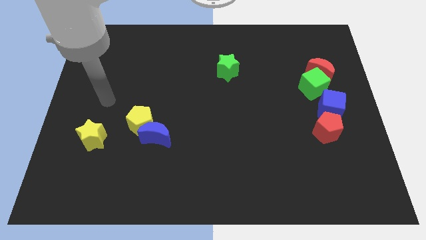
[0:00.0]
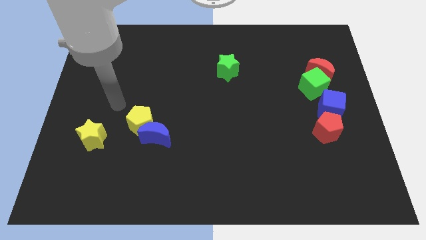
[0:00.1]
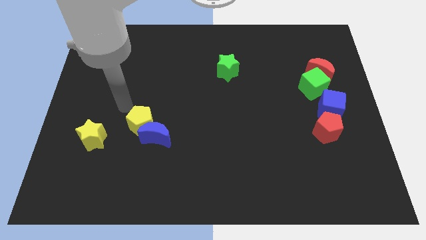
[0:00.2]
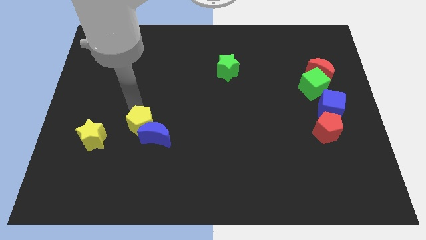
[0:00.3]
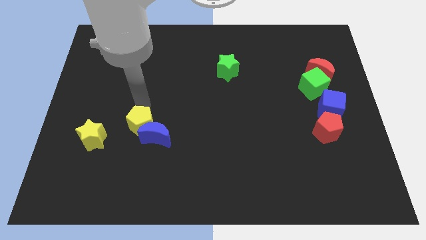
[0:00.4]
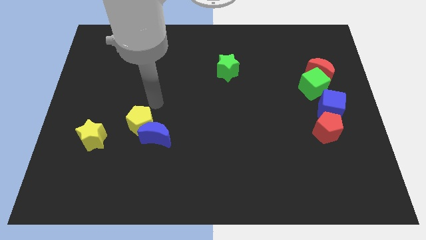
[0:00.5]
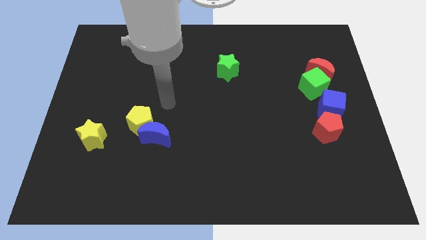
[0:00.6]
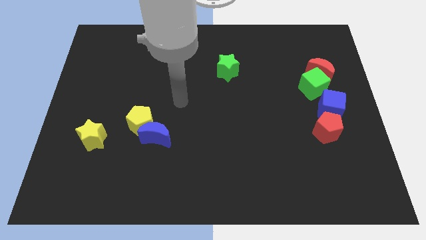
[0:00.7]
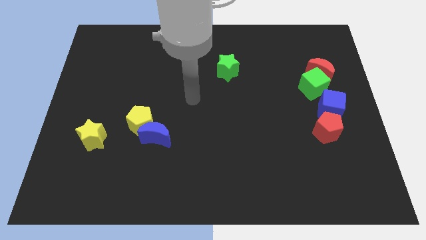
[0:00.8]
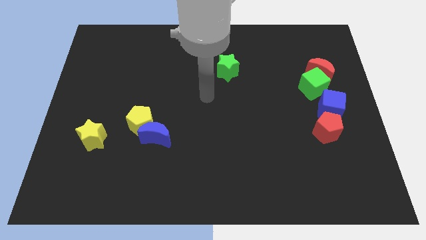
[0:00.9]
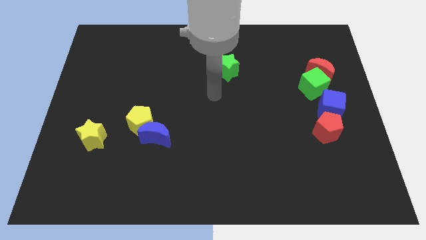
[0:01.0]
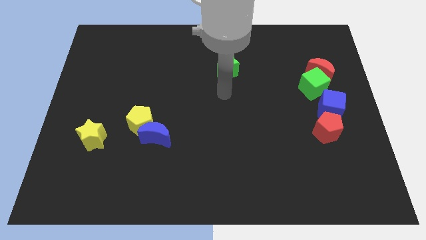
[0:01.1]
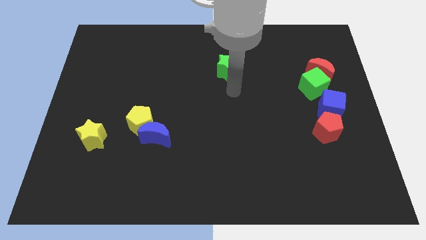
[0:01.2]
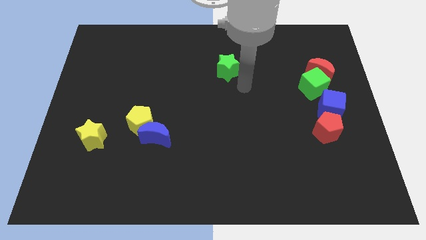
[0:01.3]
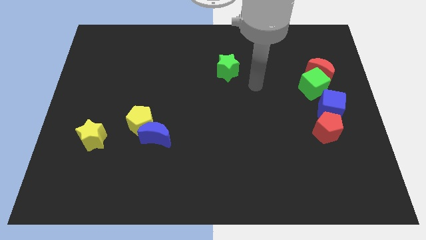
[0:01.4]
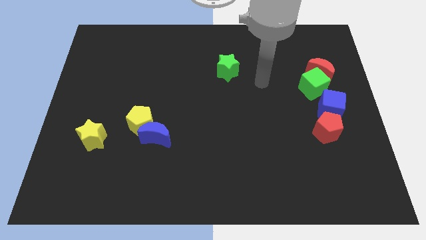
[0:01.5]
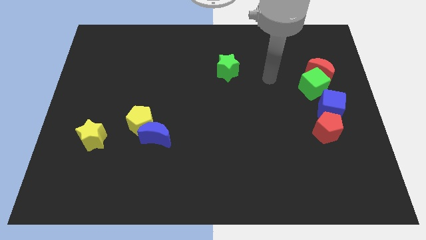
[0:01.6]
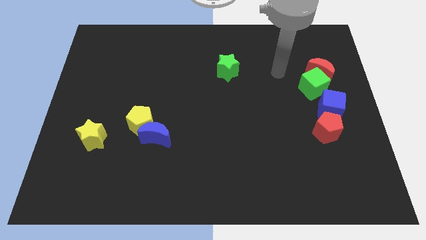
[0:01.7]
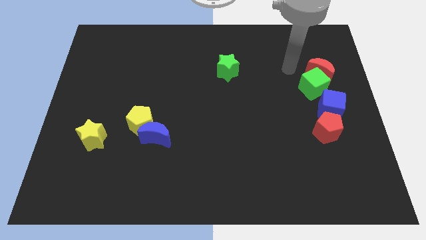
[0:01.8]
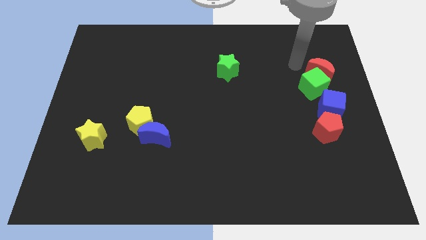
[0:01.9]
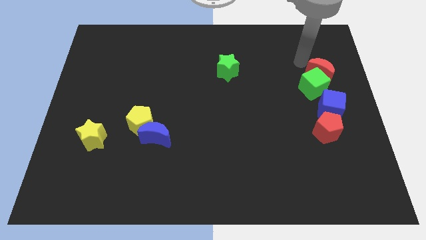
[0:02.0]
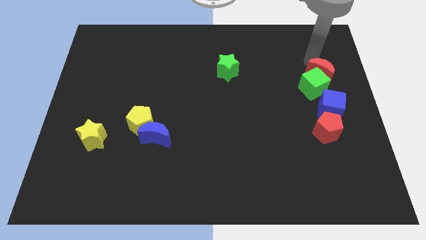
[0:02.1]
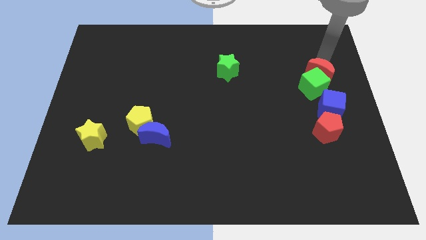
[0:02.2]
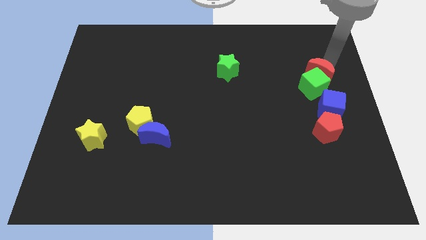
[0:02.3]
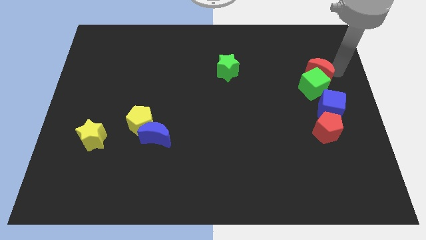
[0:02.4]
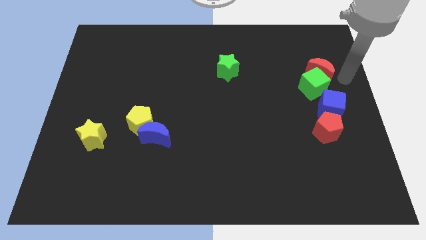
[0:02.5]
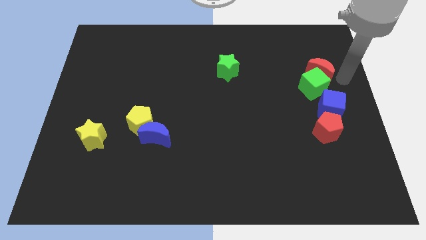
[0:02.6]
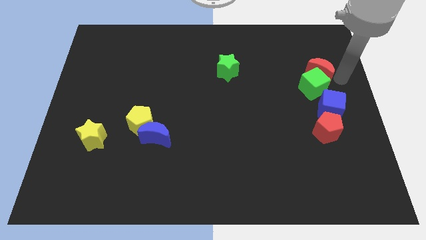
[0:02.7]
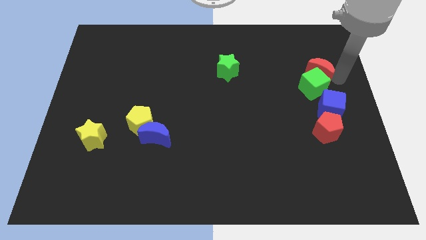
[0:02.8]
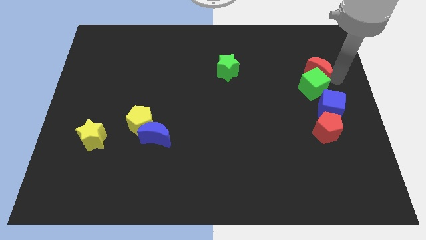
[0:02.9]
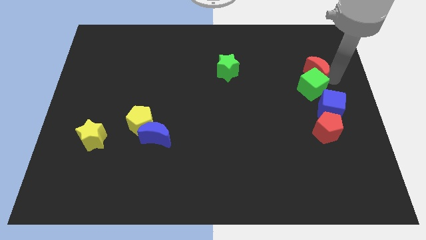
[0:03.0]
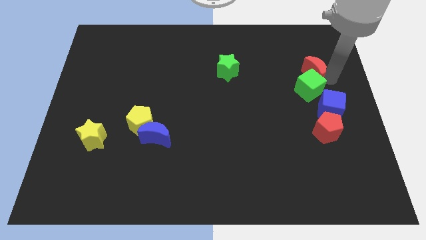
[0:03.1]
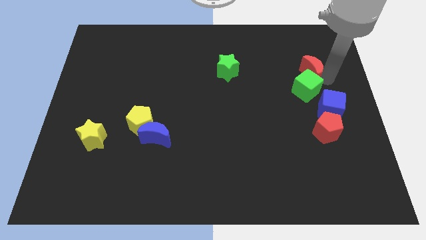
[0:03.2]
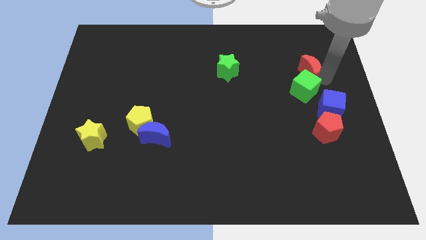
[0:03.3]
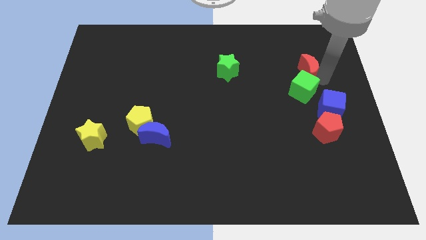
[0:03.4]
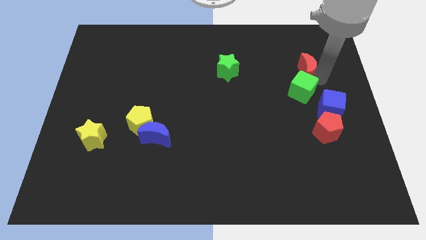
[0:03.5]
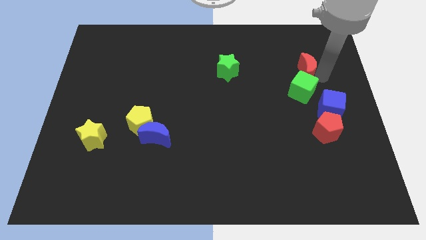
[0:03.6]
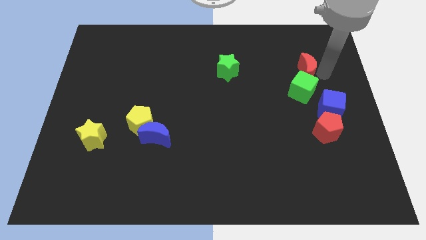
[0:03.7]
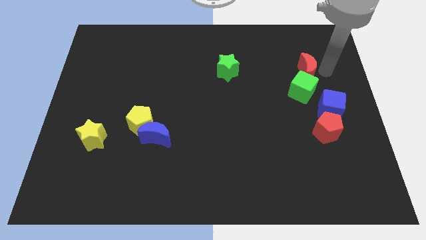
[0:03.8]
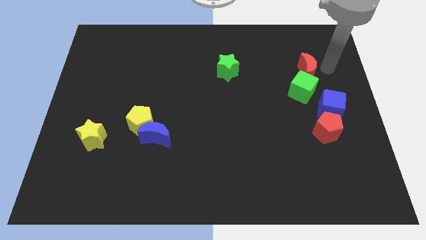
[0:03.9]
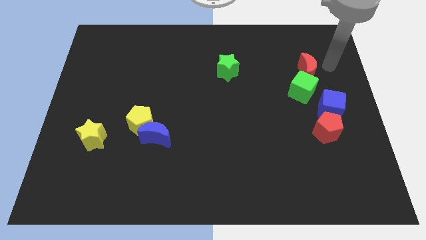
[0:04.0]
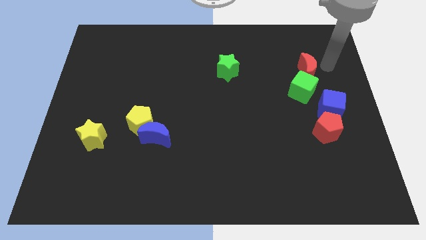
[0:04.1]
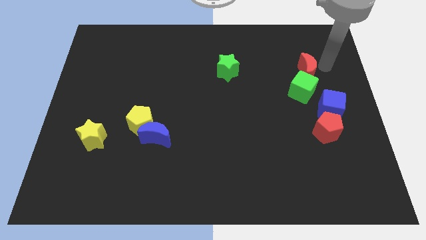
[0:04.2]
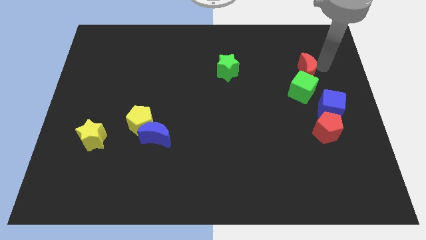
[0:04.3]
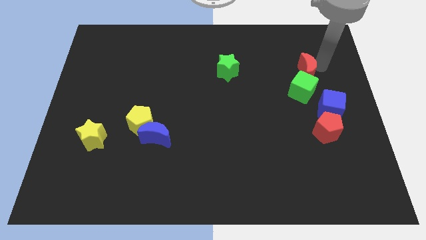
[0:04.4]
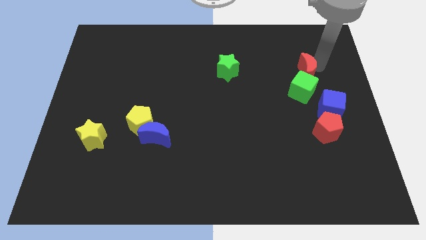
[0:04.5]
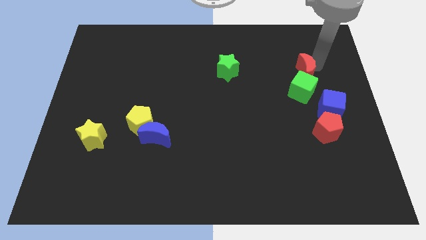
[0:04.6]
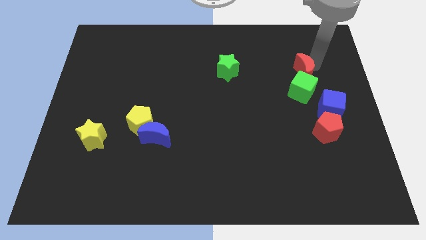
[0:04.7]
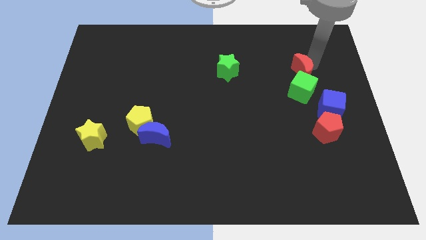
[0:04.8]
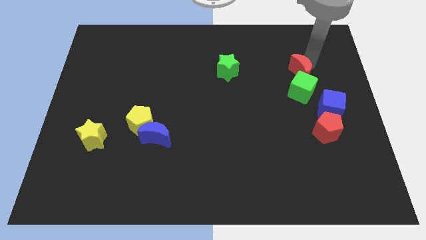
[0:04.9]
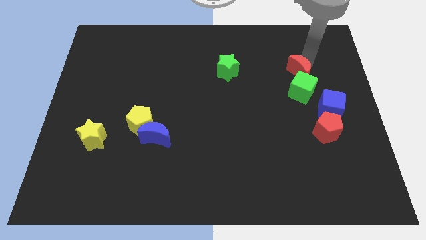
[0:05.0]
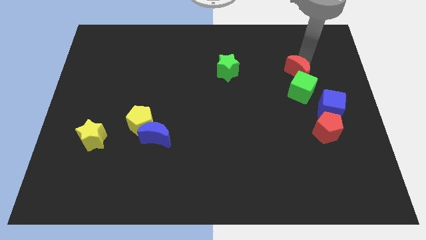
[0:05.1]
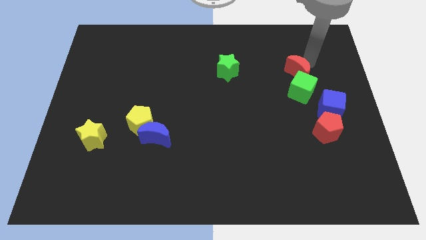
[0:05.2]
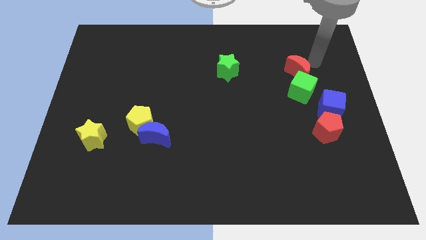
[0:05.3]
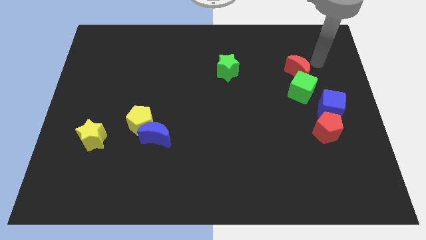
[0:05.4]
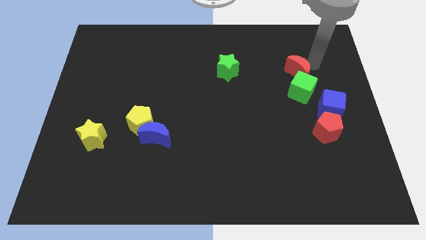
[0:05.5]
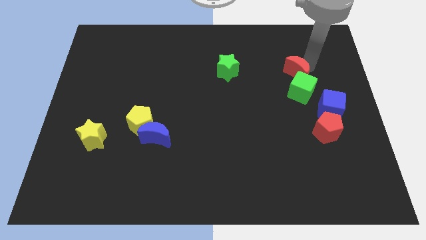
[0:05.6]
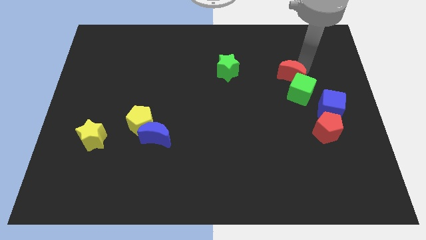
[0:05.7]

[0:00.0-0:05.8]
slide the red moon to the left a bit

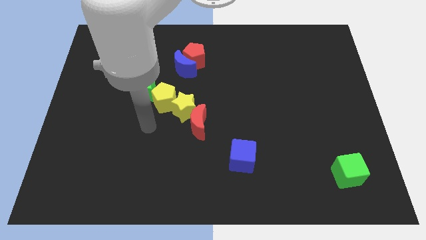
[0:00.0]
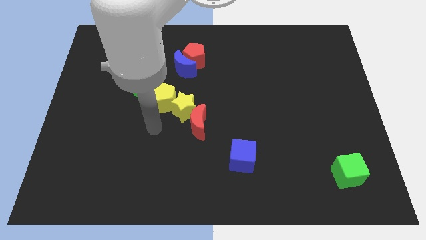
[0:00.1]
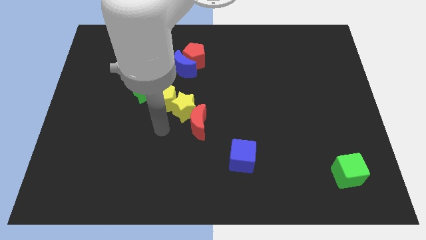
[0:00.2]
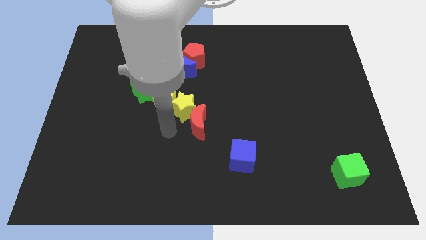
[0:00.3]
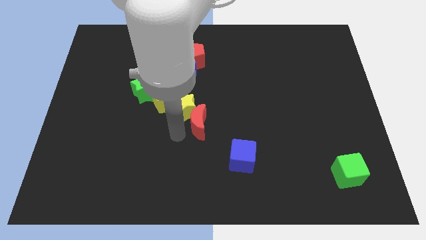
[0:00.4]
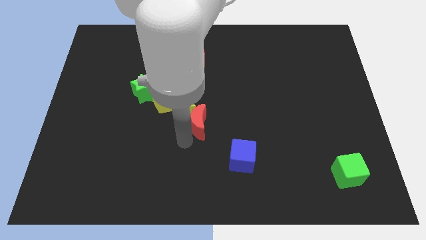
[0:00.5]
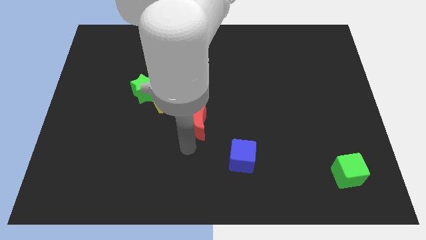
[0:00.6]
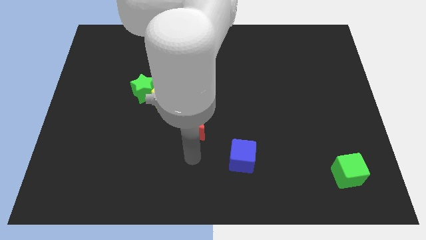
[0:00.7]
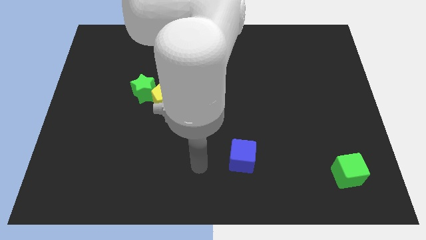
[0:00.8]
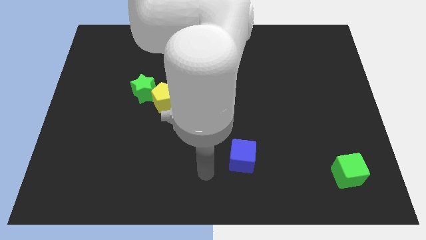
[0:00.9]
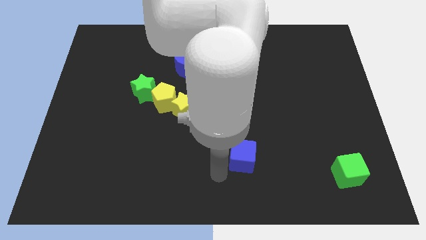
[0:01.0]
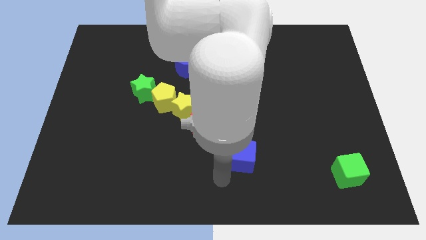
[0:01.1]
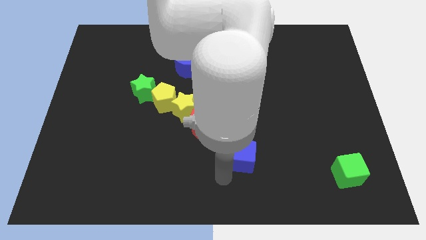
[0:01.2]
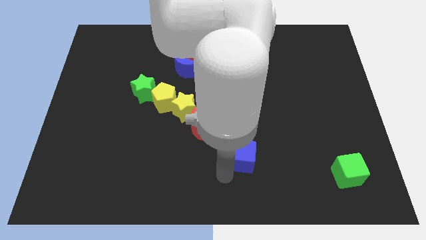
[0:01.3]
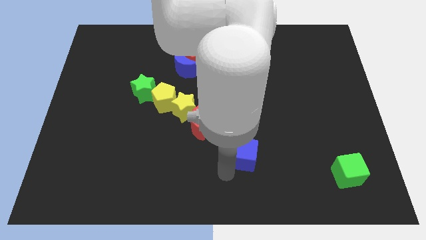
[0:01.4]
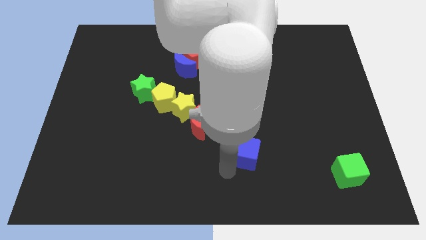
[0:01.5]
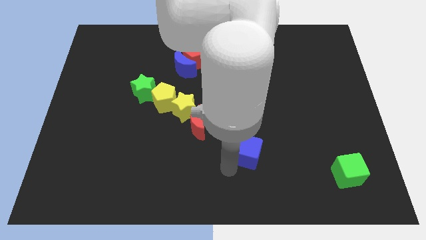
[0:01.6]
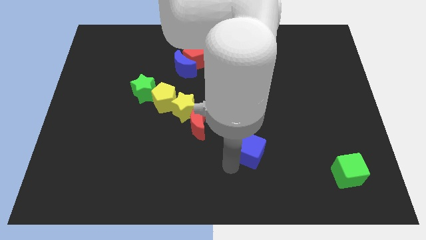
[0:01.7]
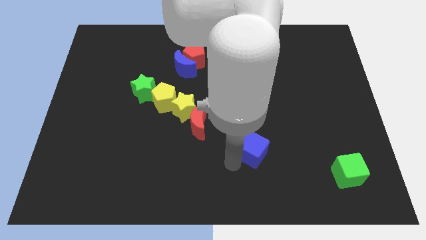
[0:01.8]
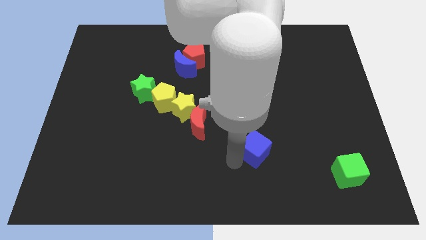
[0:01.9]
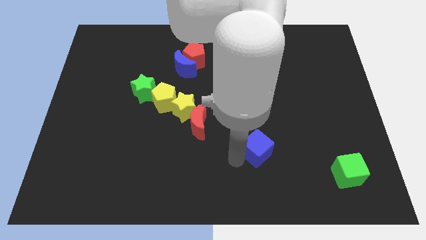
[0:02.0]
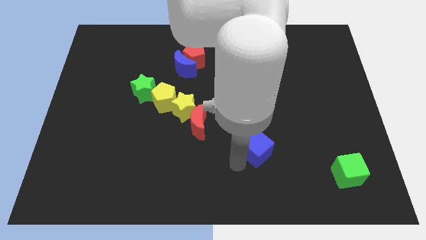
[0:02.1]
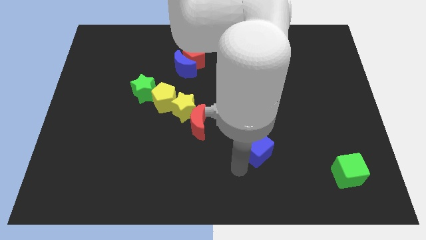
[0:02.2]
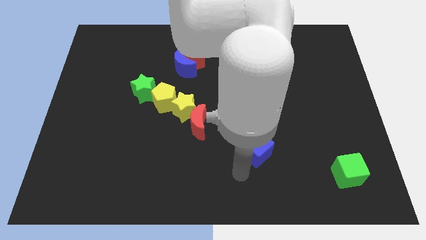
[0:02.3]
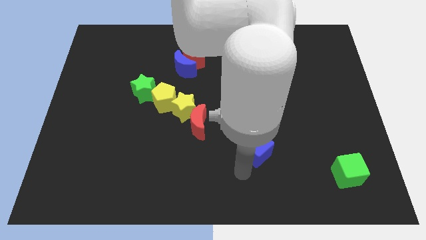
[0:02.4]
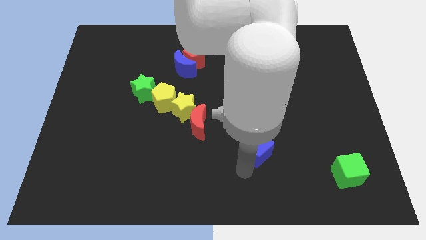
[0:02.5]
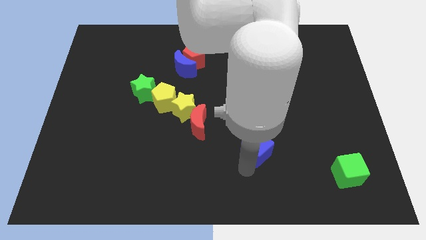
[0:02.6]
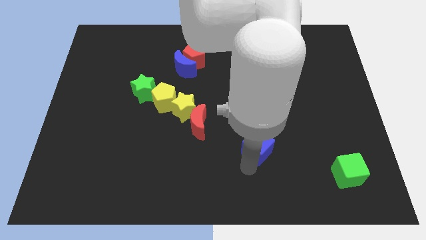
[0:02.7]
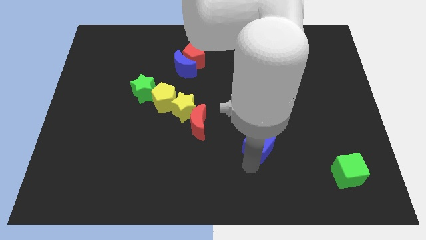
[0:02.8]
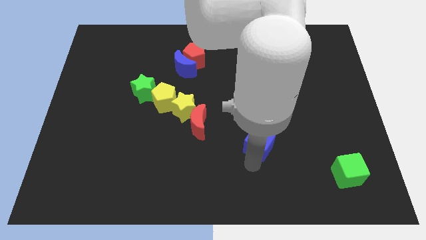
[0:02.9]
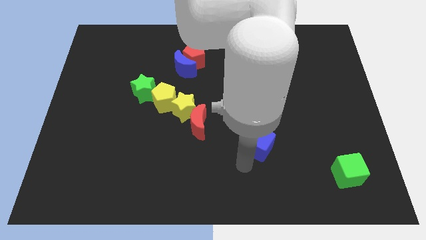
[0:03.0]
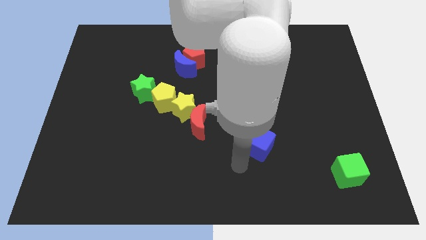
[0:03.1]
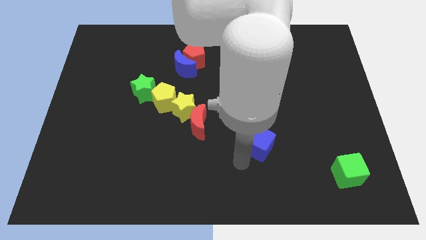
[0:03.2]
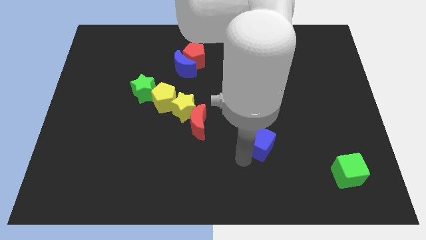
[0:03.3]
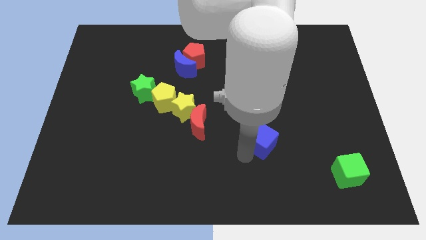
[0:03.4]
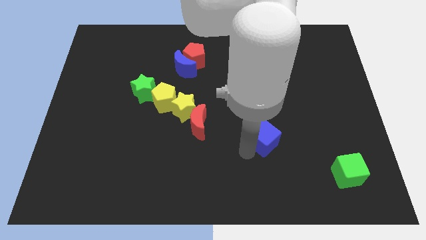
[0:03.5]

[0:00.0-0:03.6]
slightly move the blue cube up and then right
